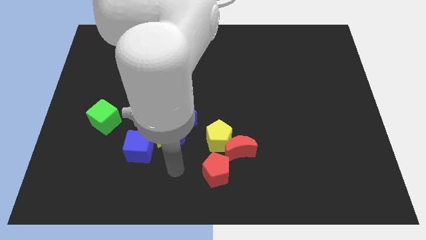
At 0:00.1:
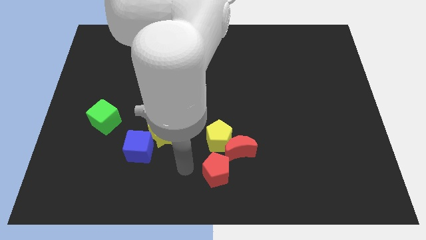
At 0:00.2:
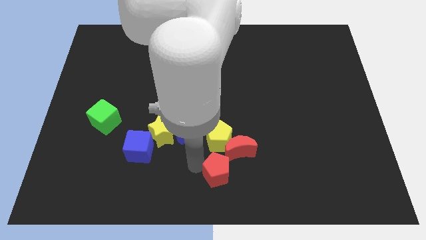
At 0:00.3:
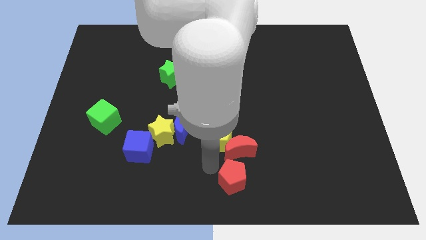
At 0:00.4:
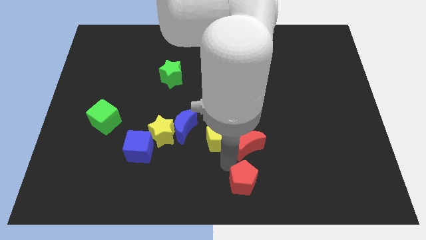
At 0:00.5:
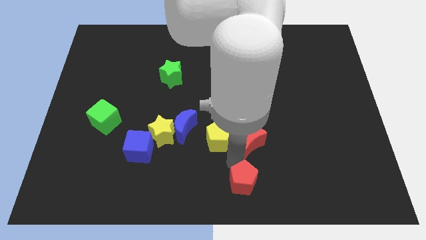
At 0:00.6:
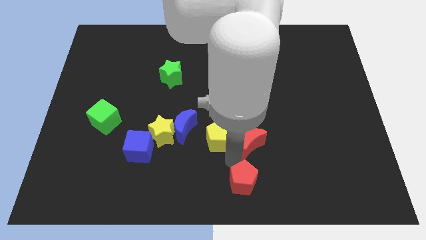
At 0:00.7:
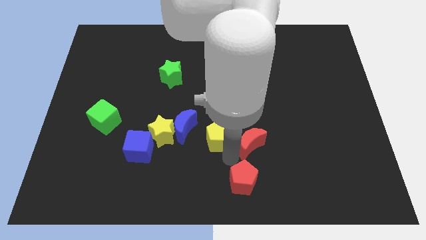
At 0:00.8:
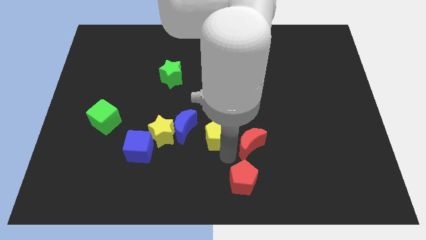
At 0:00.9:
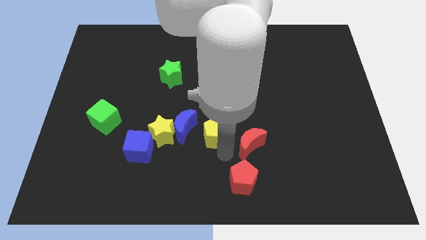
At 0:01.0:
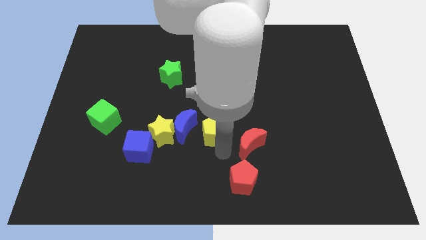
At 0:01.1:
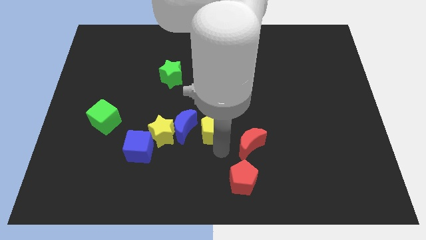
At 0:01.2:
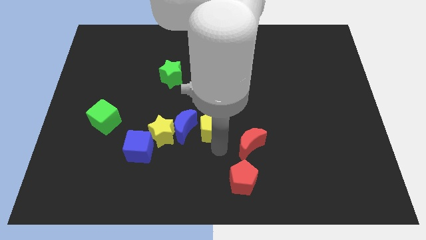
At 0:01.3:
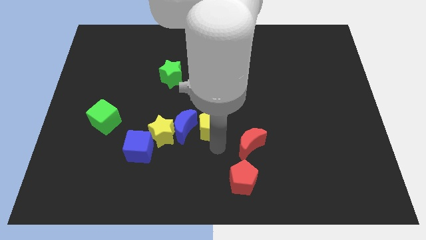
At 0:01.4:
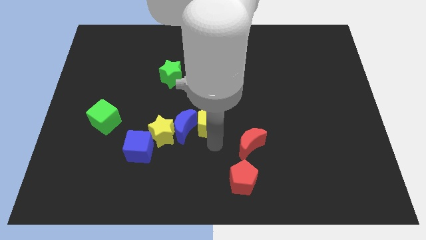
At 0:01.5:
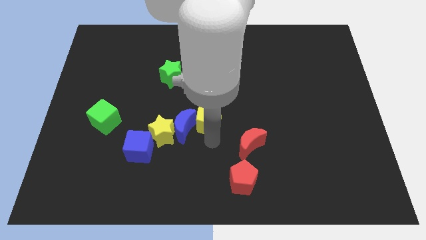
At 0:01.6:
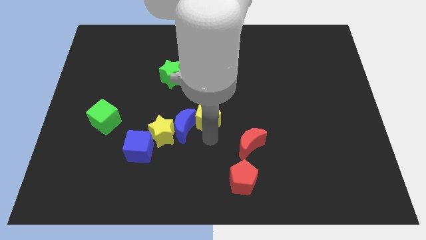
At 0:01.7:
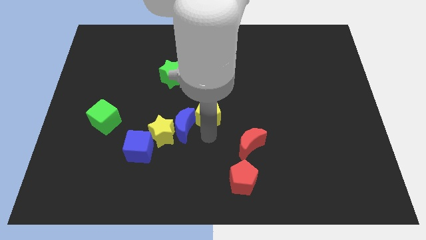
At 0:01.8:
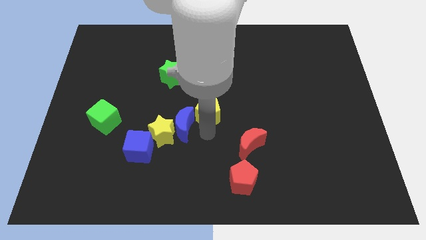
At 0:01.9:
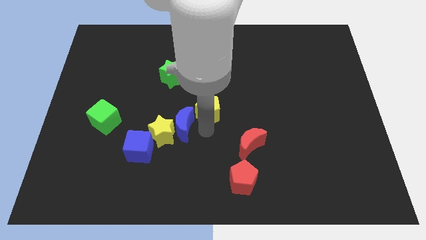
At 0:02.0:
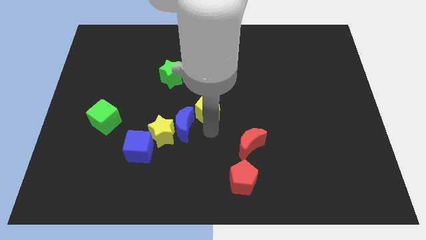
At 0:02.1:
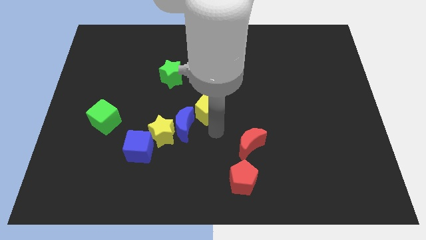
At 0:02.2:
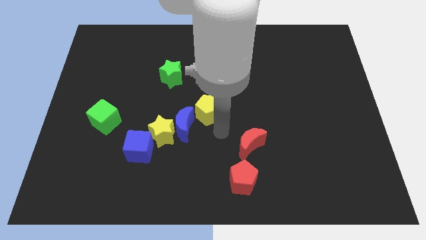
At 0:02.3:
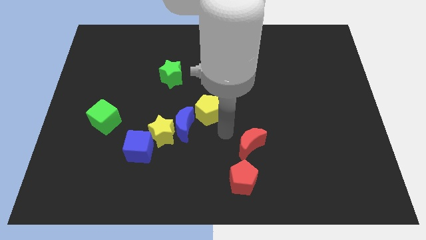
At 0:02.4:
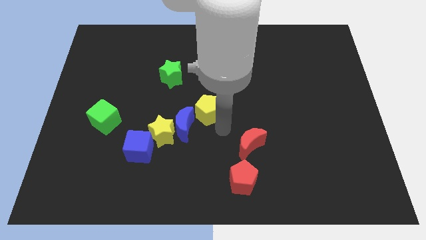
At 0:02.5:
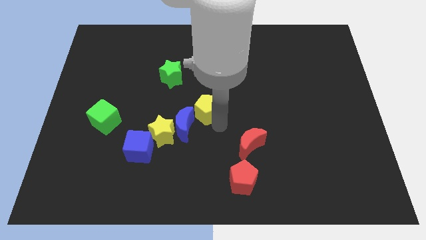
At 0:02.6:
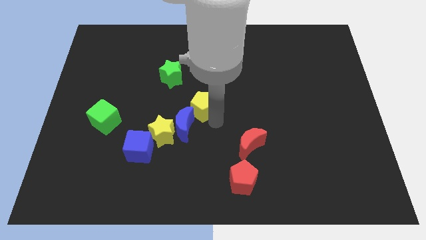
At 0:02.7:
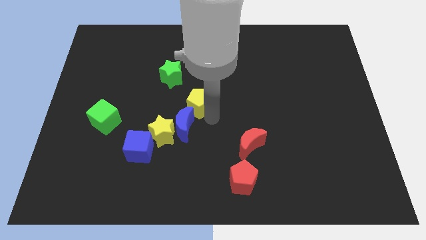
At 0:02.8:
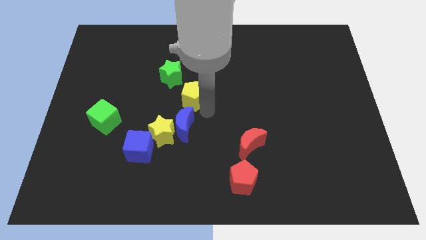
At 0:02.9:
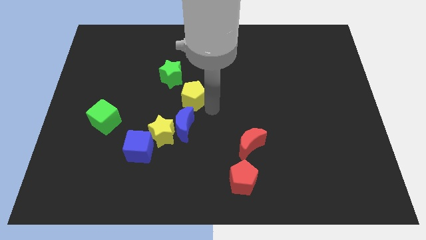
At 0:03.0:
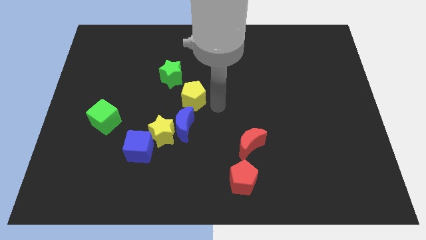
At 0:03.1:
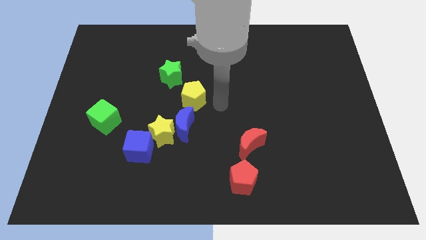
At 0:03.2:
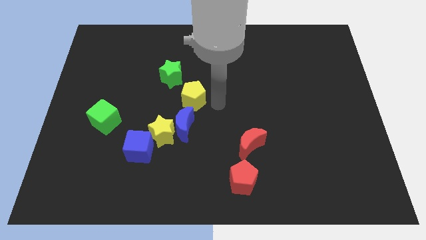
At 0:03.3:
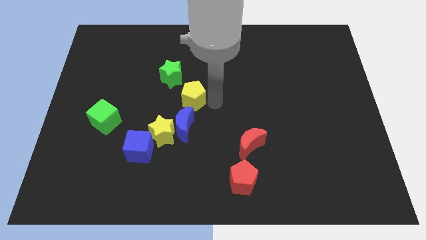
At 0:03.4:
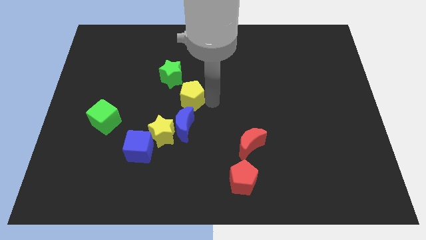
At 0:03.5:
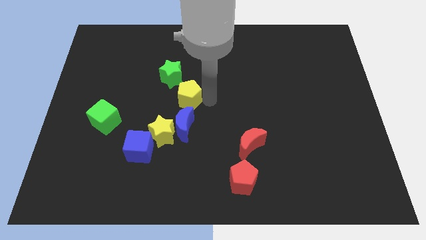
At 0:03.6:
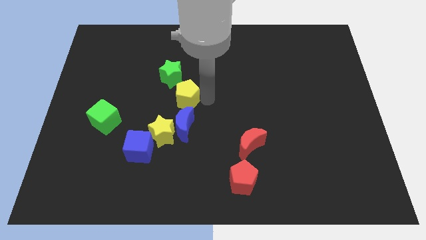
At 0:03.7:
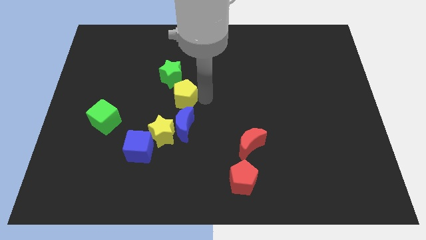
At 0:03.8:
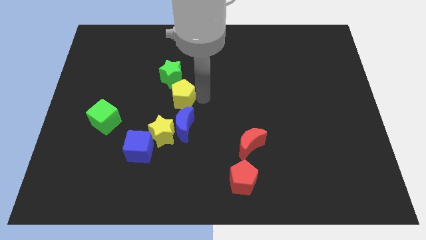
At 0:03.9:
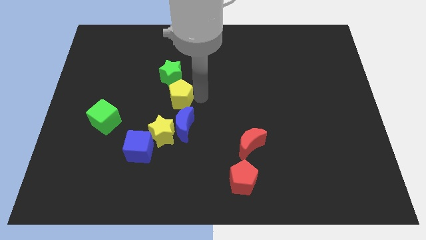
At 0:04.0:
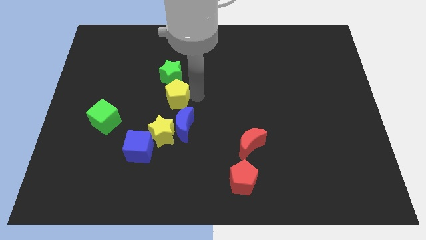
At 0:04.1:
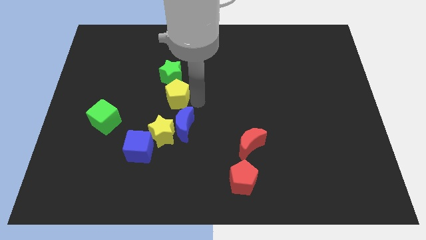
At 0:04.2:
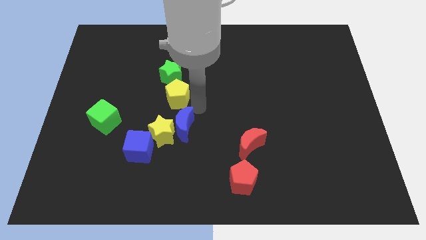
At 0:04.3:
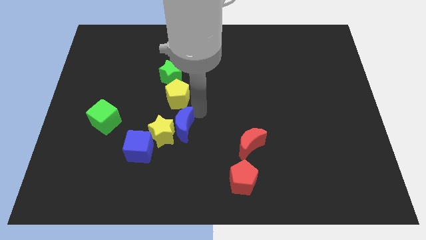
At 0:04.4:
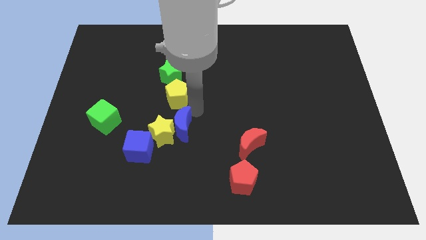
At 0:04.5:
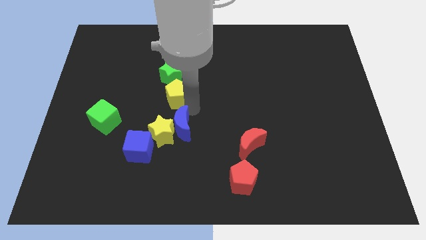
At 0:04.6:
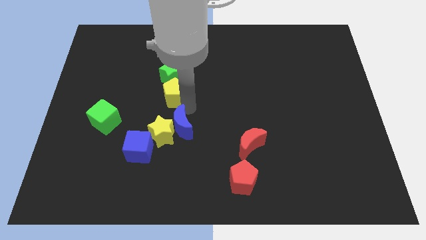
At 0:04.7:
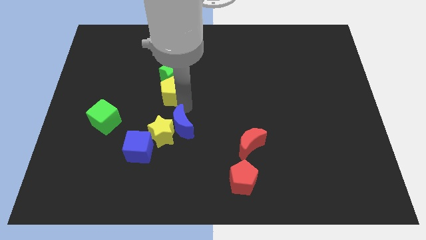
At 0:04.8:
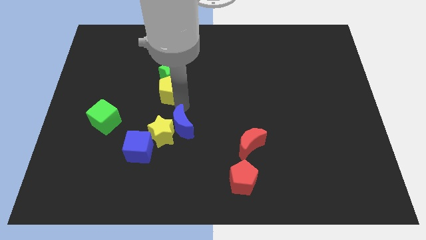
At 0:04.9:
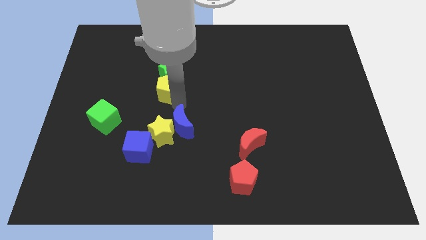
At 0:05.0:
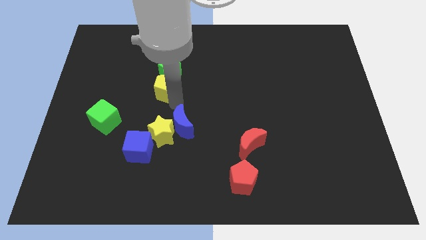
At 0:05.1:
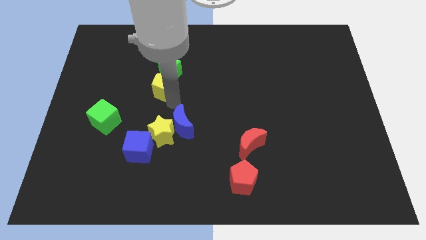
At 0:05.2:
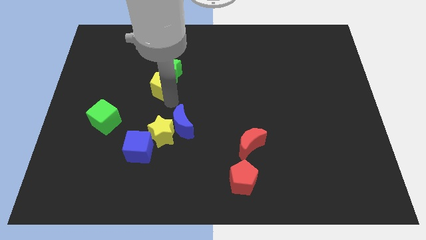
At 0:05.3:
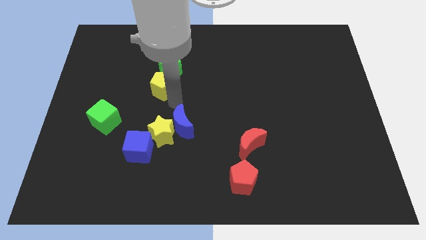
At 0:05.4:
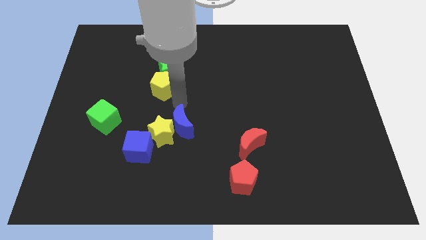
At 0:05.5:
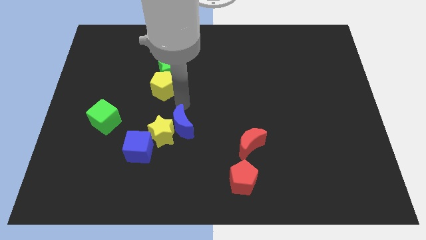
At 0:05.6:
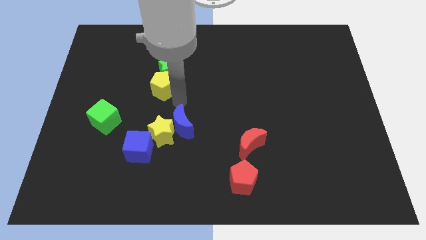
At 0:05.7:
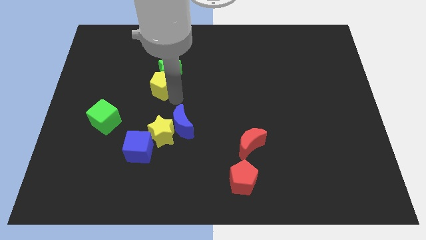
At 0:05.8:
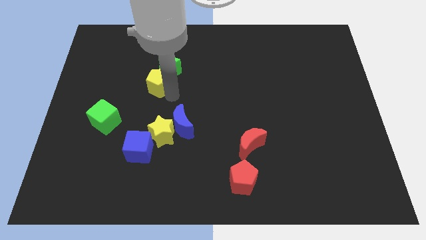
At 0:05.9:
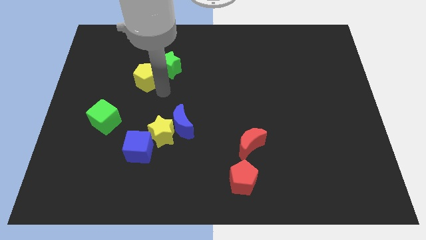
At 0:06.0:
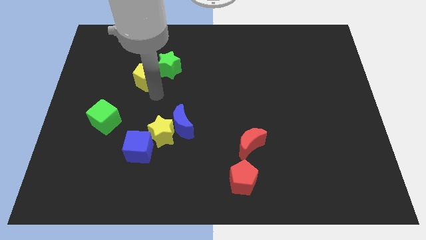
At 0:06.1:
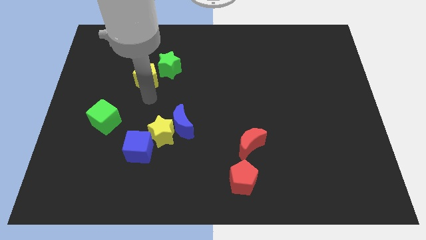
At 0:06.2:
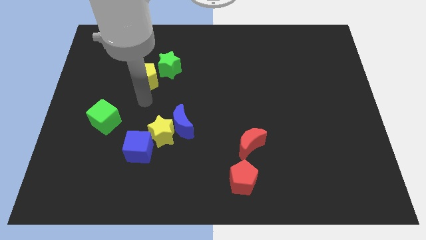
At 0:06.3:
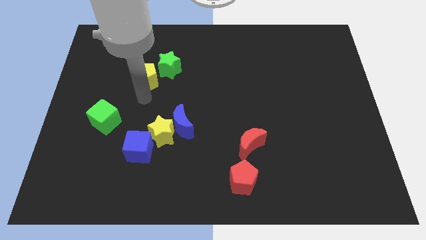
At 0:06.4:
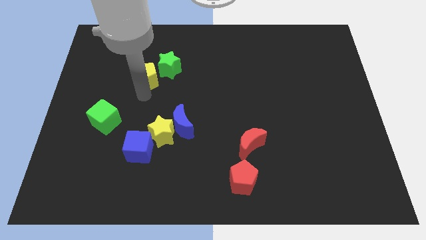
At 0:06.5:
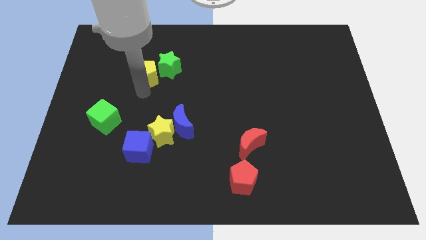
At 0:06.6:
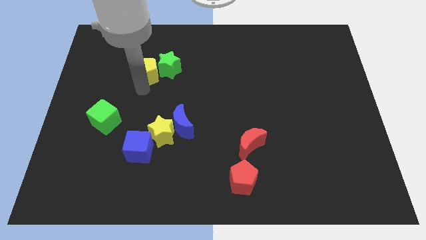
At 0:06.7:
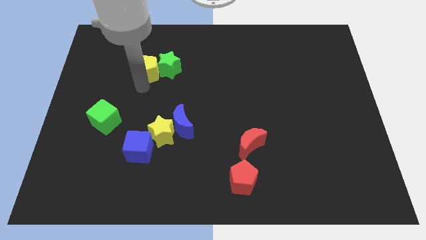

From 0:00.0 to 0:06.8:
slide the yellow pentagon to the top left of the green star
